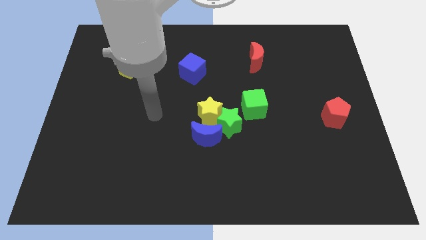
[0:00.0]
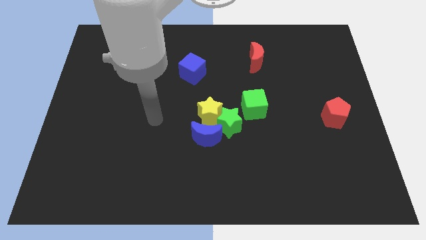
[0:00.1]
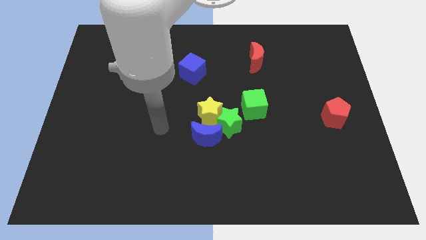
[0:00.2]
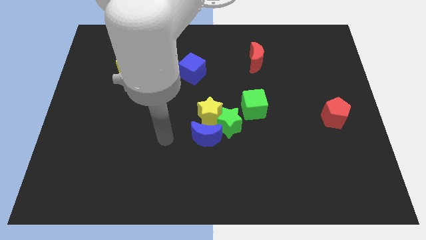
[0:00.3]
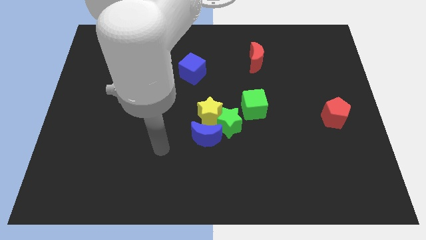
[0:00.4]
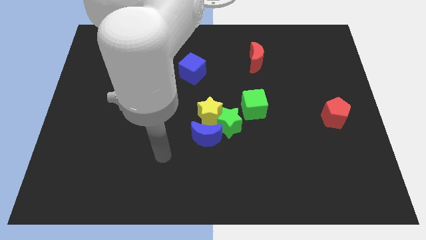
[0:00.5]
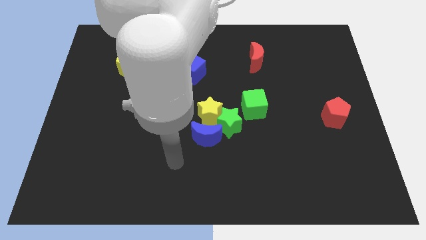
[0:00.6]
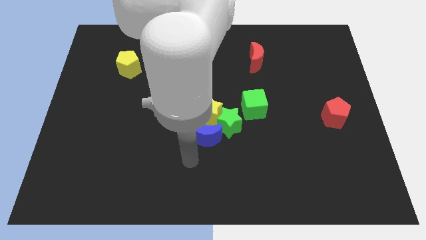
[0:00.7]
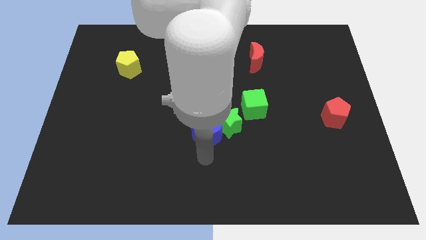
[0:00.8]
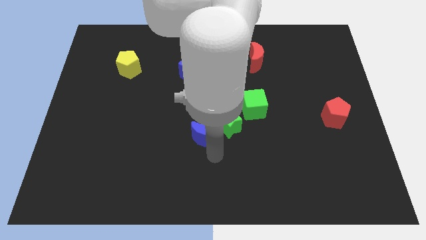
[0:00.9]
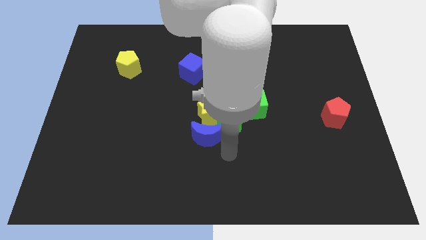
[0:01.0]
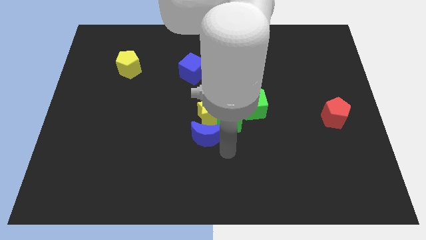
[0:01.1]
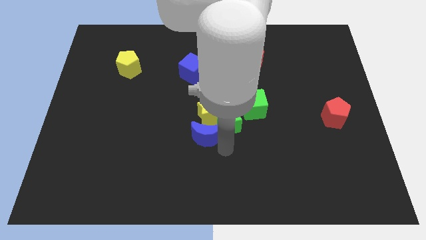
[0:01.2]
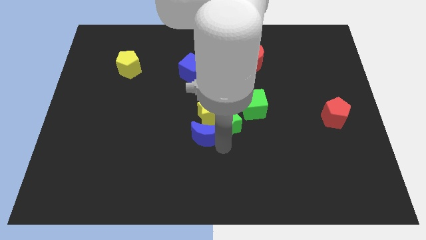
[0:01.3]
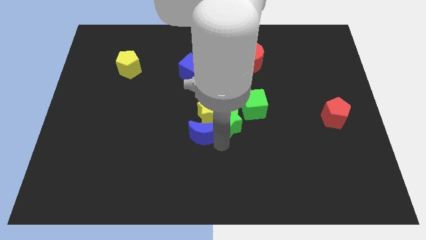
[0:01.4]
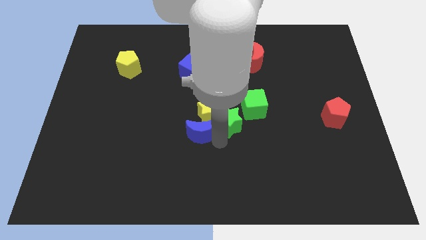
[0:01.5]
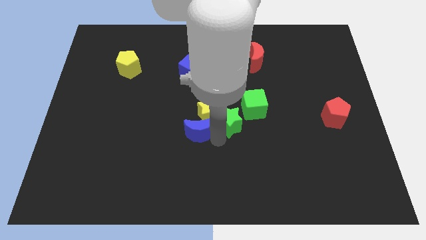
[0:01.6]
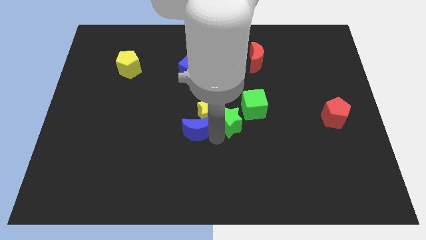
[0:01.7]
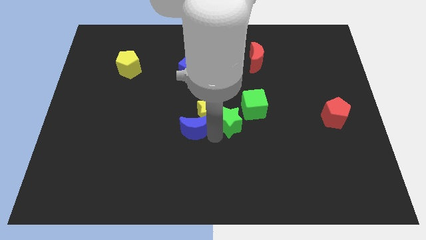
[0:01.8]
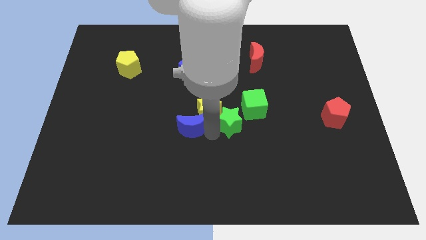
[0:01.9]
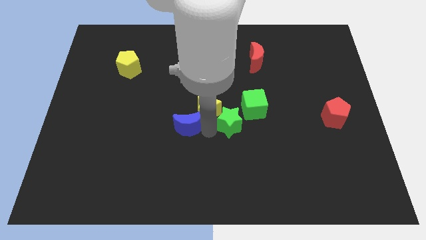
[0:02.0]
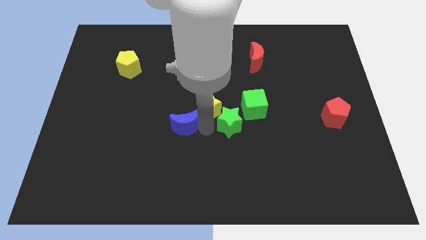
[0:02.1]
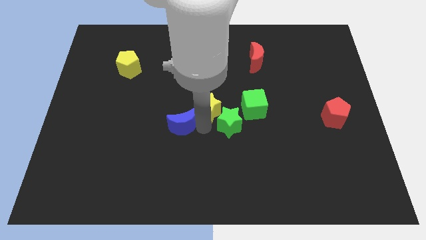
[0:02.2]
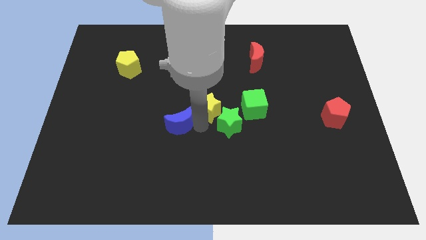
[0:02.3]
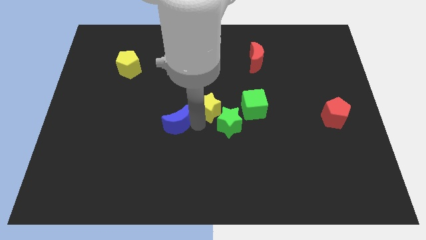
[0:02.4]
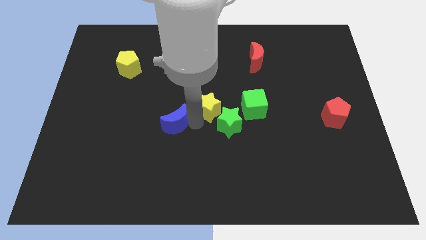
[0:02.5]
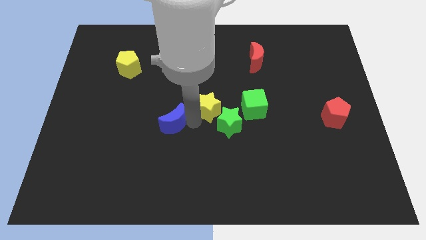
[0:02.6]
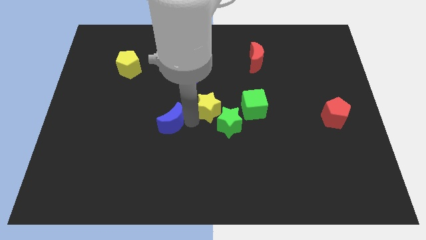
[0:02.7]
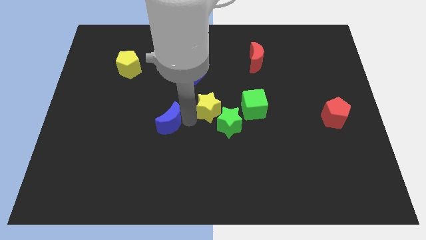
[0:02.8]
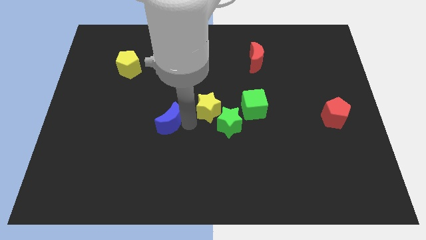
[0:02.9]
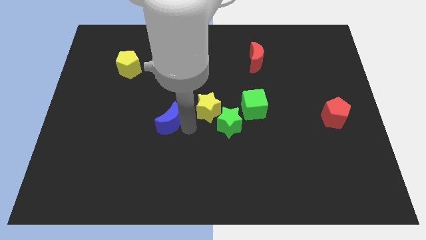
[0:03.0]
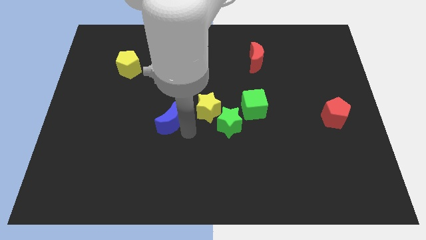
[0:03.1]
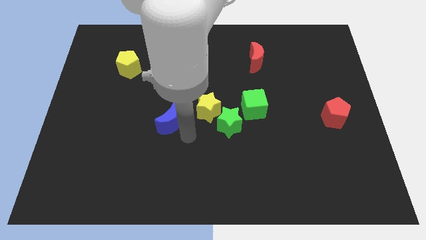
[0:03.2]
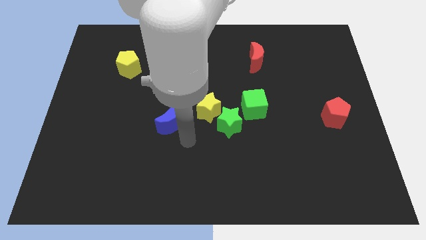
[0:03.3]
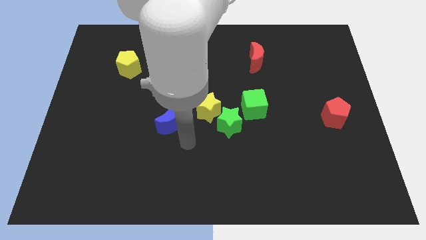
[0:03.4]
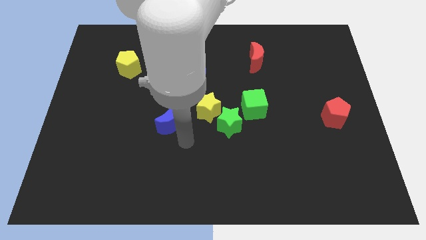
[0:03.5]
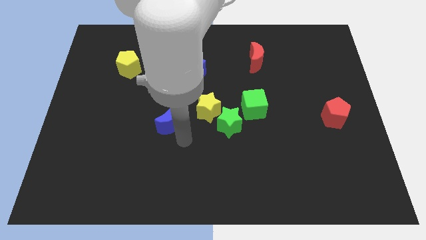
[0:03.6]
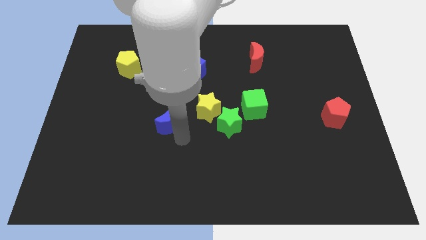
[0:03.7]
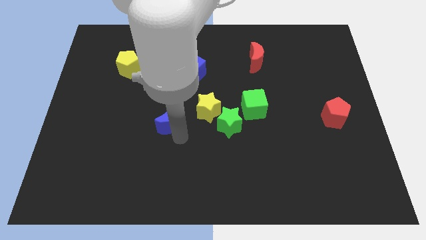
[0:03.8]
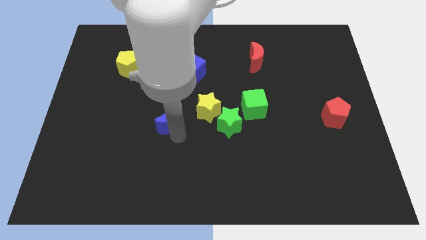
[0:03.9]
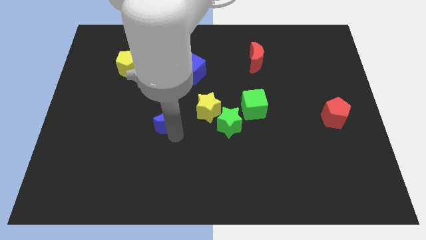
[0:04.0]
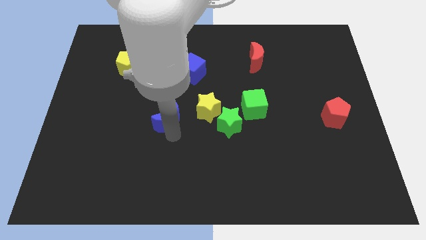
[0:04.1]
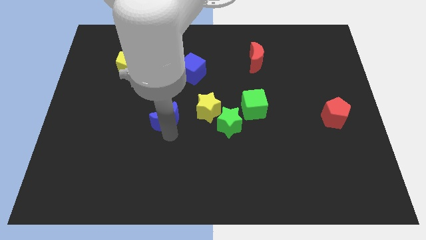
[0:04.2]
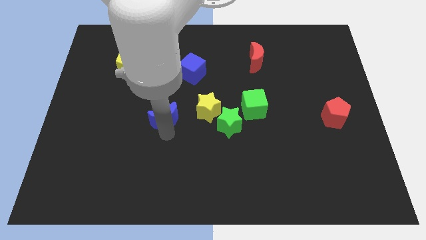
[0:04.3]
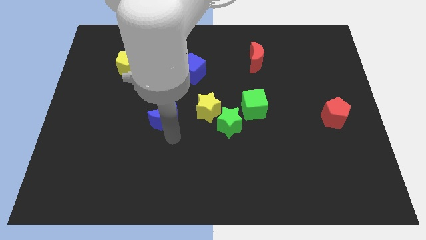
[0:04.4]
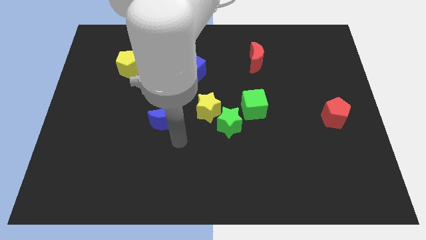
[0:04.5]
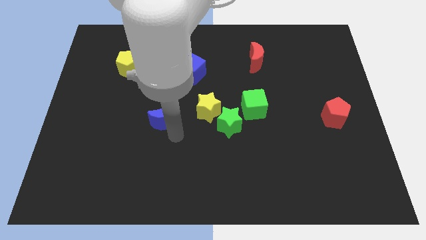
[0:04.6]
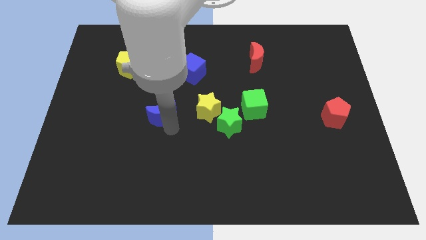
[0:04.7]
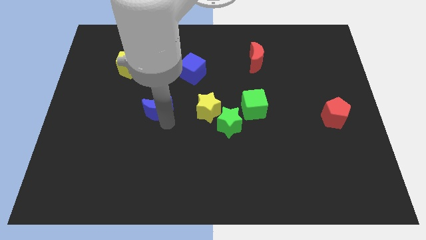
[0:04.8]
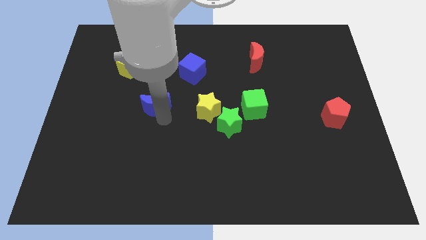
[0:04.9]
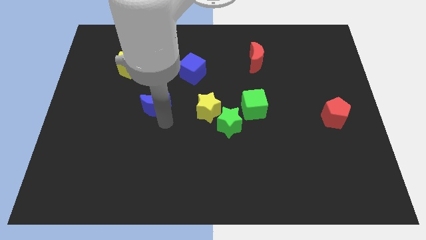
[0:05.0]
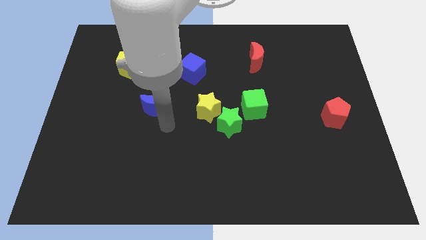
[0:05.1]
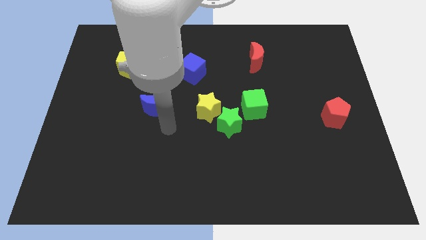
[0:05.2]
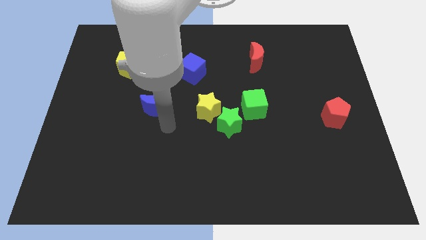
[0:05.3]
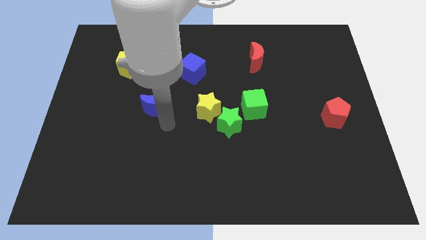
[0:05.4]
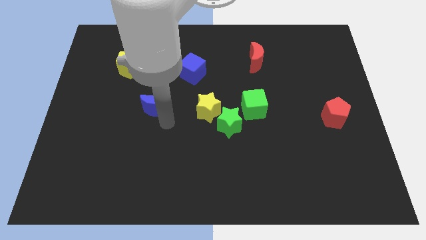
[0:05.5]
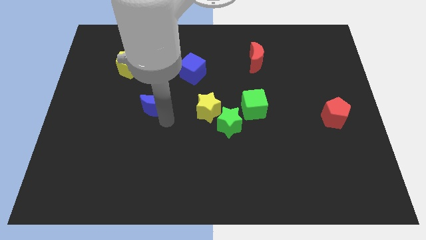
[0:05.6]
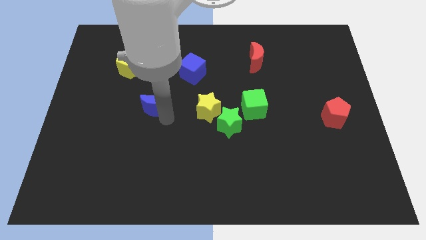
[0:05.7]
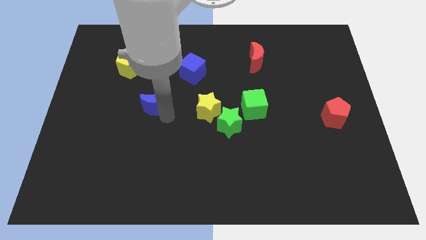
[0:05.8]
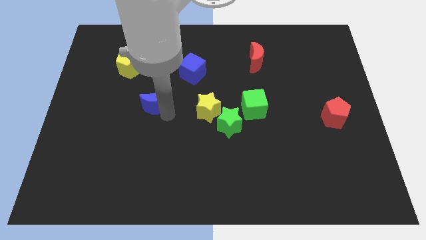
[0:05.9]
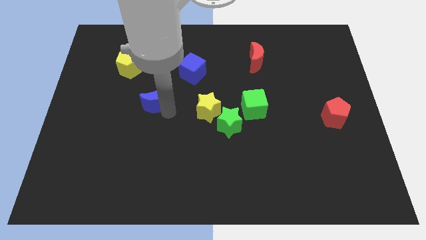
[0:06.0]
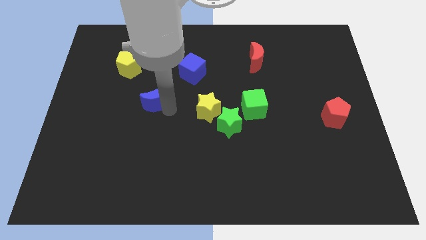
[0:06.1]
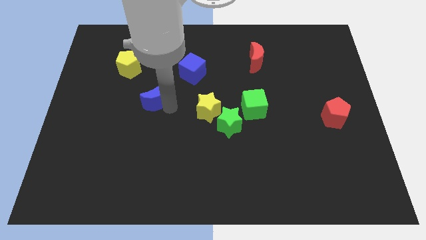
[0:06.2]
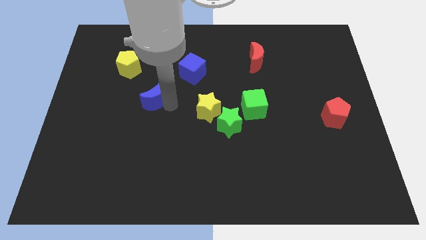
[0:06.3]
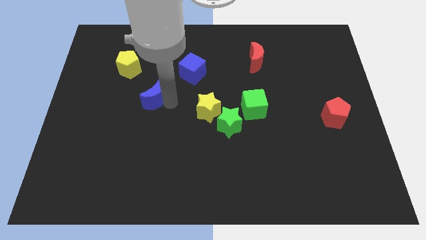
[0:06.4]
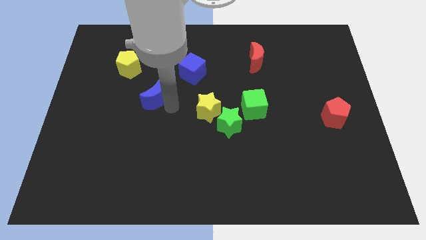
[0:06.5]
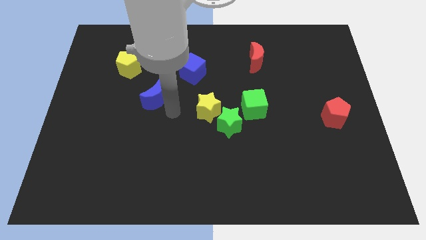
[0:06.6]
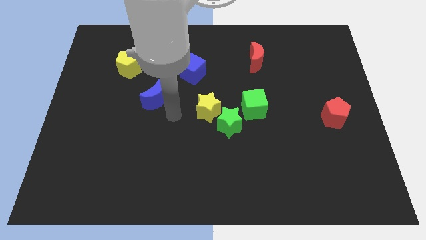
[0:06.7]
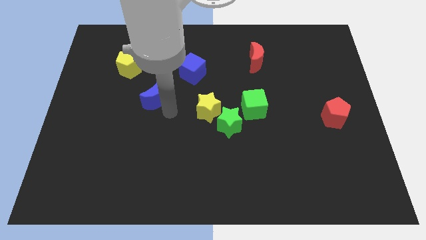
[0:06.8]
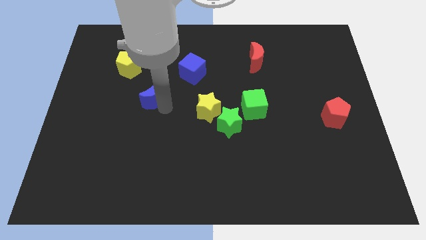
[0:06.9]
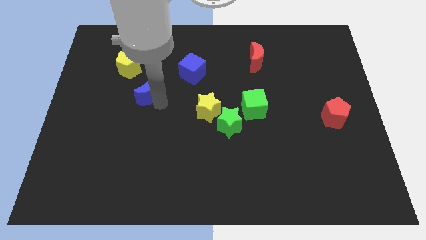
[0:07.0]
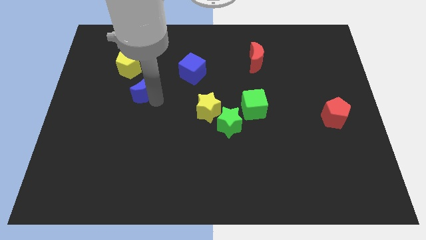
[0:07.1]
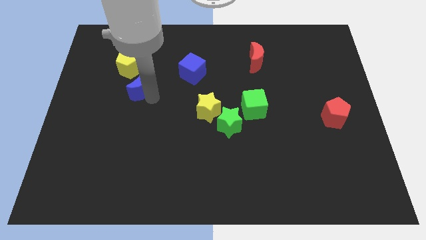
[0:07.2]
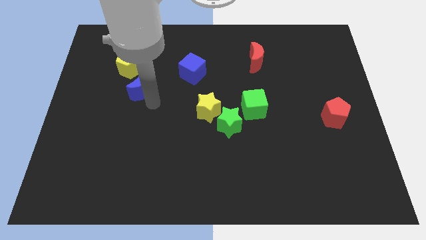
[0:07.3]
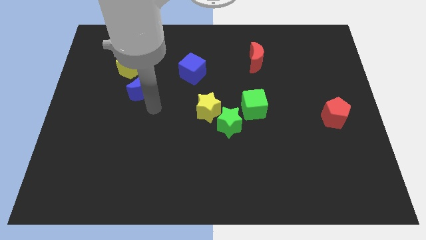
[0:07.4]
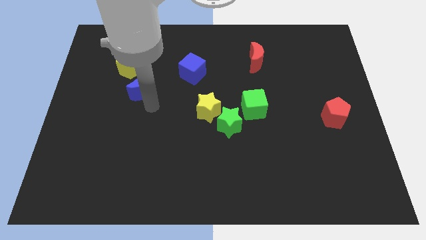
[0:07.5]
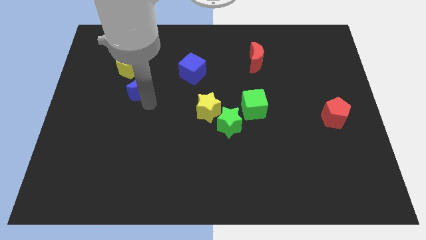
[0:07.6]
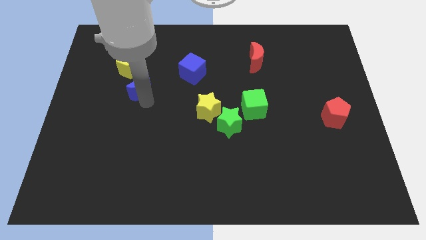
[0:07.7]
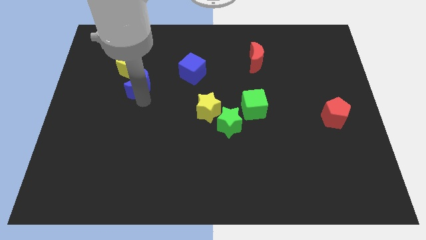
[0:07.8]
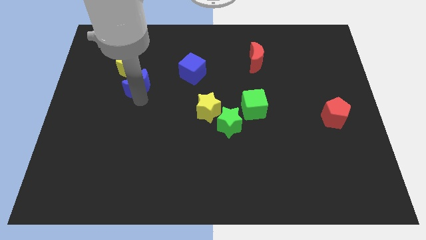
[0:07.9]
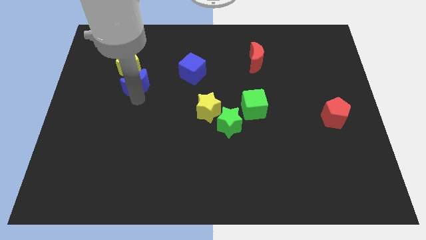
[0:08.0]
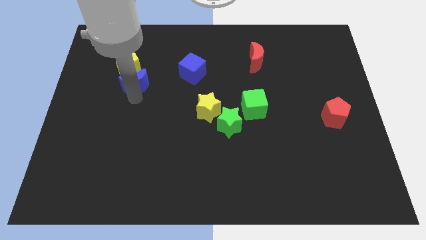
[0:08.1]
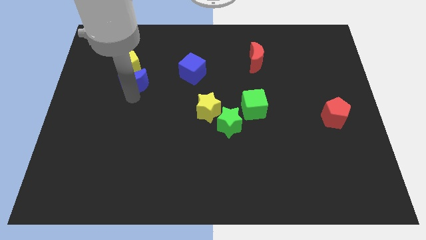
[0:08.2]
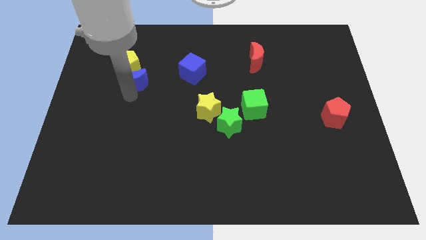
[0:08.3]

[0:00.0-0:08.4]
move the blue moon next to the yellow pentagon
